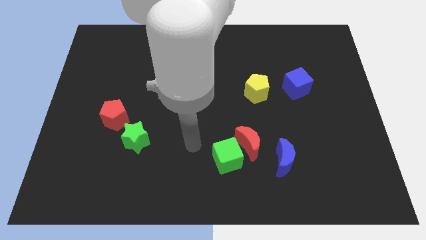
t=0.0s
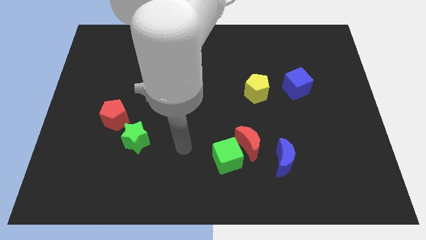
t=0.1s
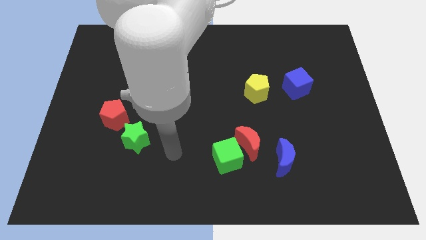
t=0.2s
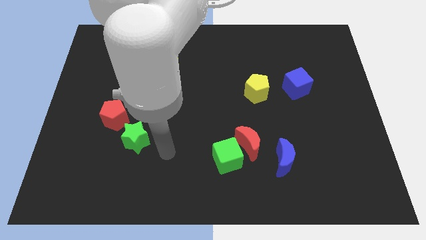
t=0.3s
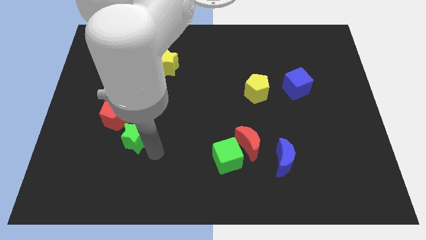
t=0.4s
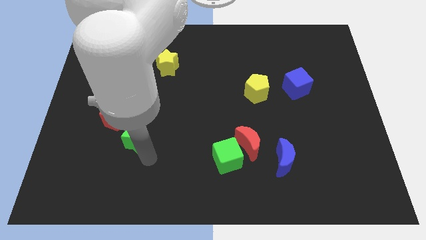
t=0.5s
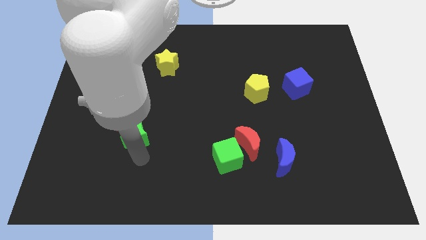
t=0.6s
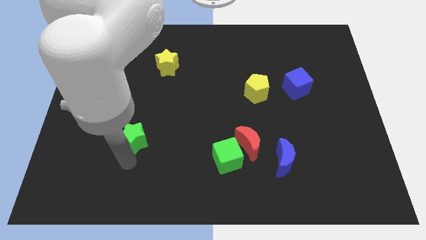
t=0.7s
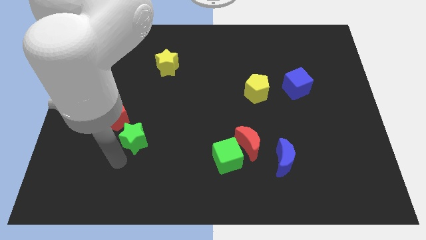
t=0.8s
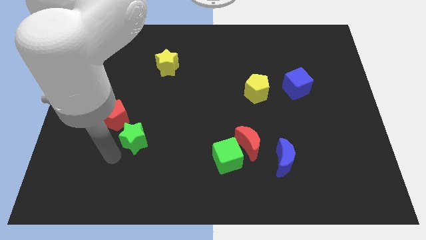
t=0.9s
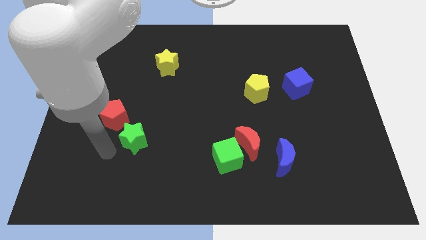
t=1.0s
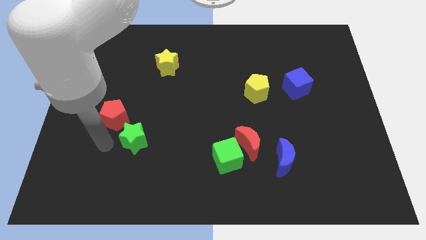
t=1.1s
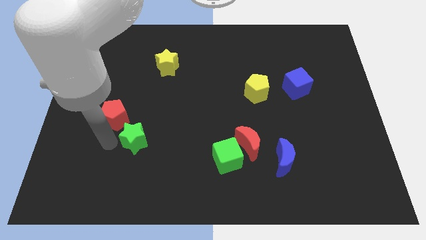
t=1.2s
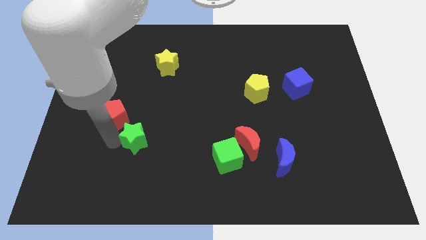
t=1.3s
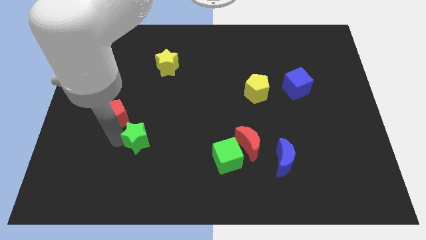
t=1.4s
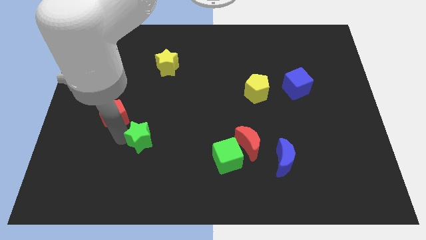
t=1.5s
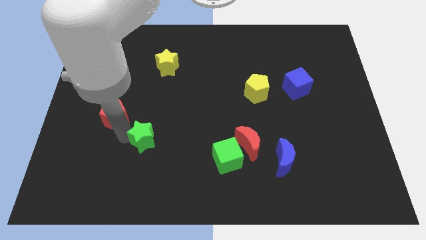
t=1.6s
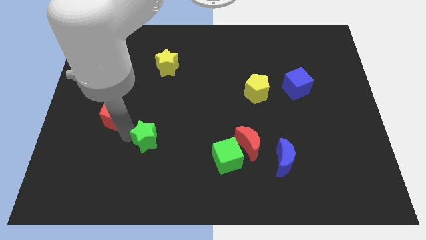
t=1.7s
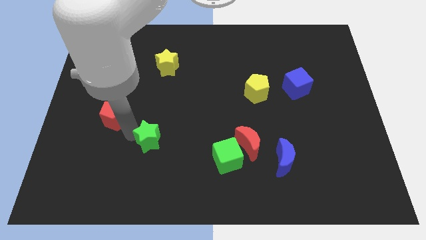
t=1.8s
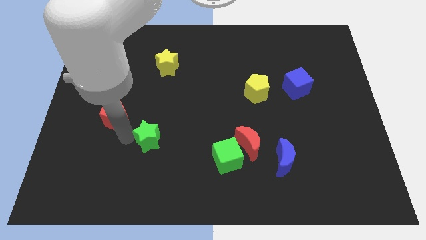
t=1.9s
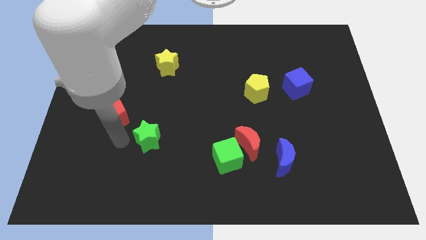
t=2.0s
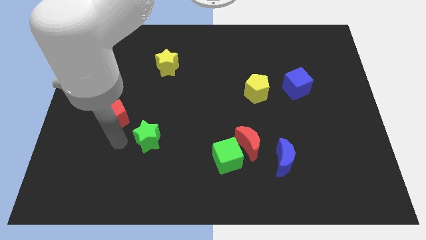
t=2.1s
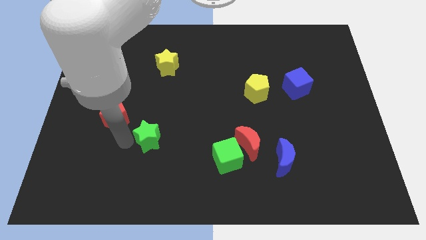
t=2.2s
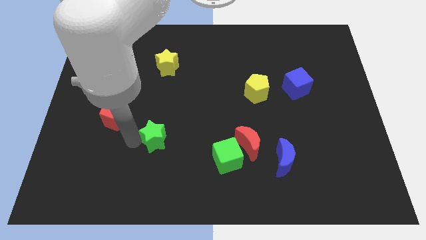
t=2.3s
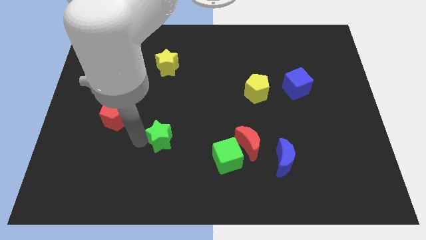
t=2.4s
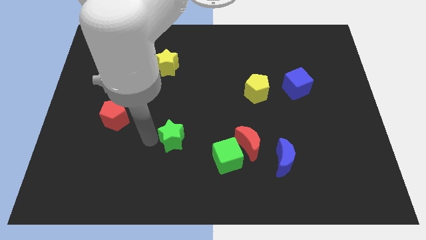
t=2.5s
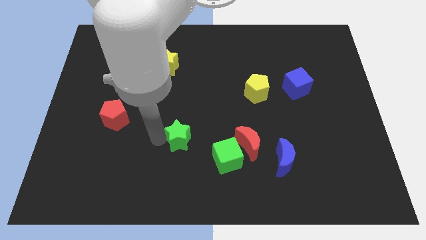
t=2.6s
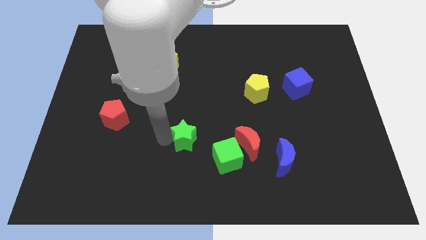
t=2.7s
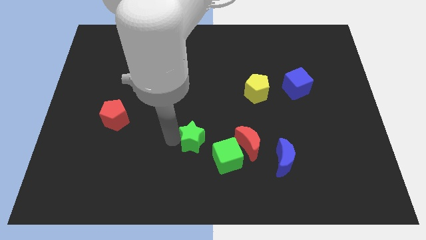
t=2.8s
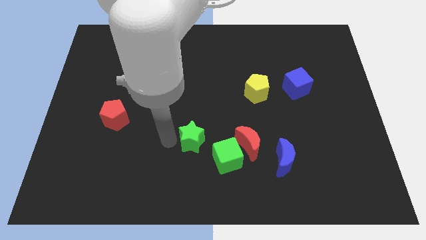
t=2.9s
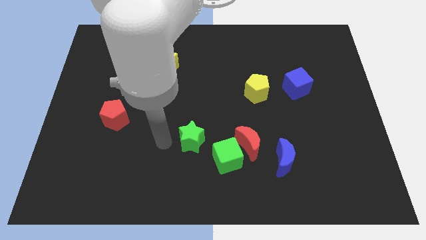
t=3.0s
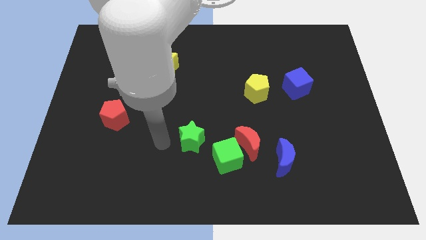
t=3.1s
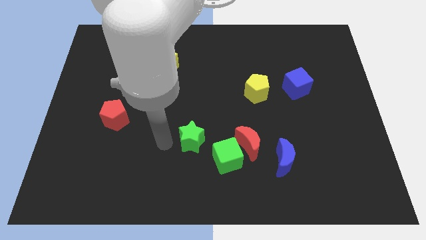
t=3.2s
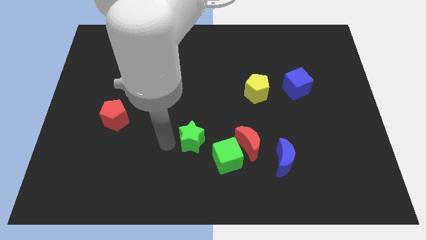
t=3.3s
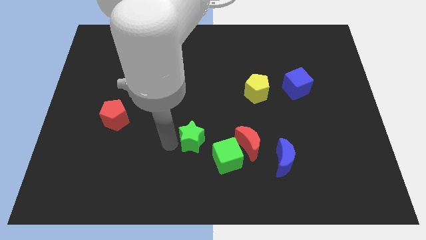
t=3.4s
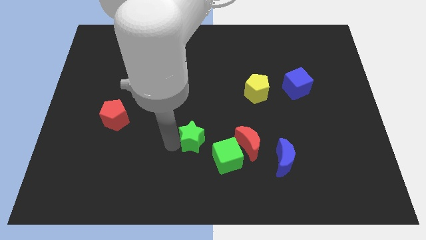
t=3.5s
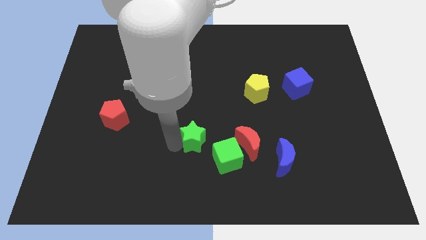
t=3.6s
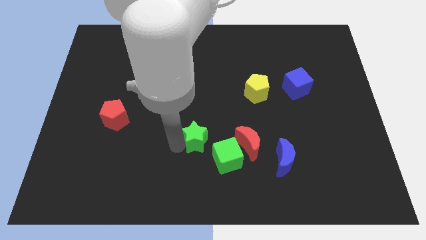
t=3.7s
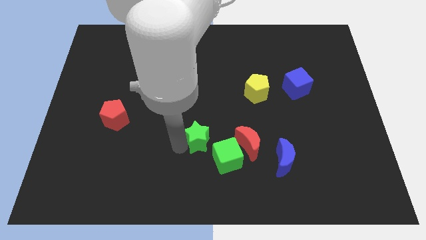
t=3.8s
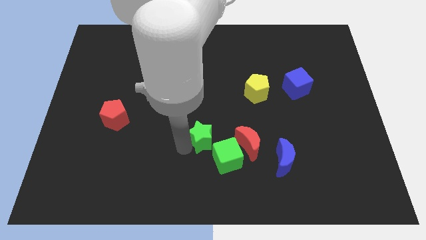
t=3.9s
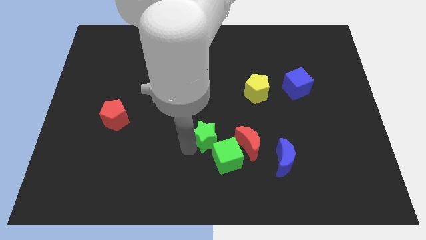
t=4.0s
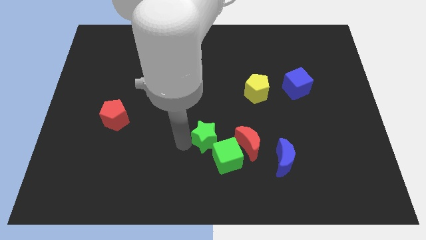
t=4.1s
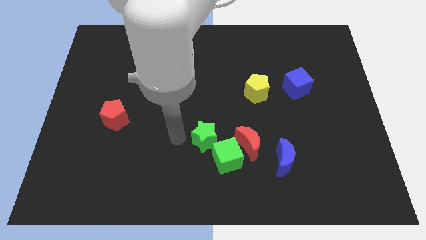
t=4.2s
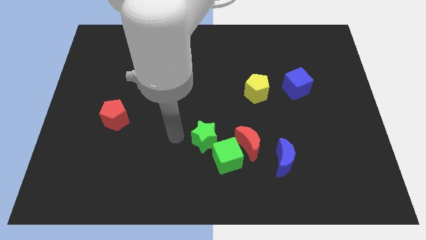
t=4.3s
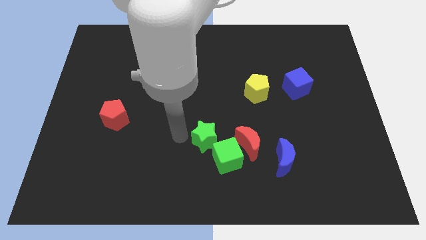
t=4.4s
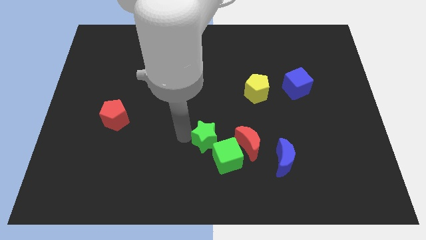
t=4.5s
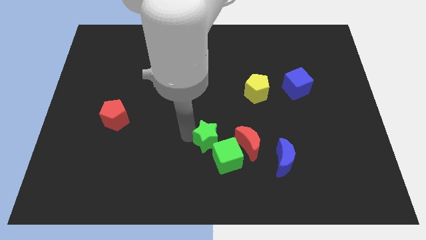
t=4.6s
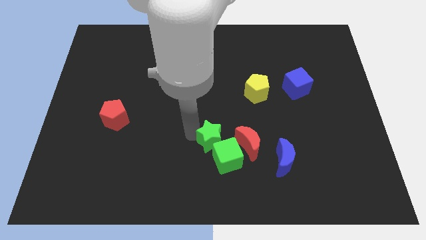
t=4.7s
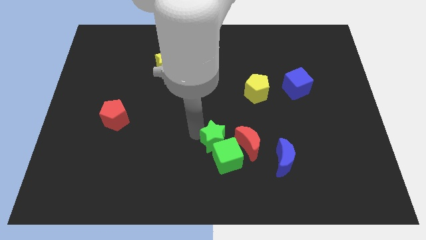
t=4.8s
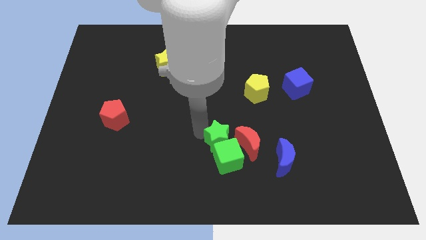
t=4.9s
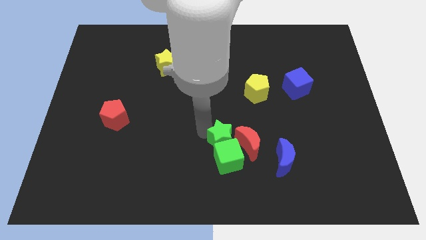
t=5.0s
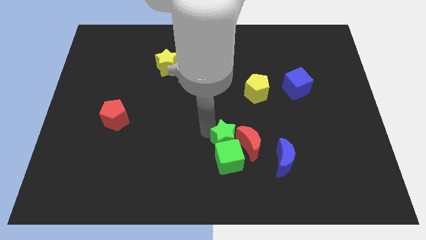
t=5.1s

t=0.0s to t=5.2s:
move the green star towards the red moon

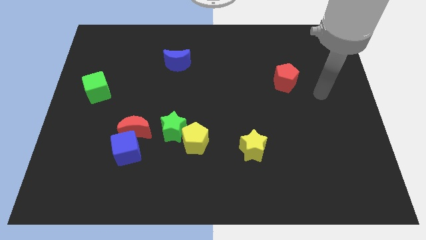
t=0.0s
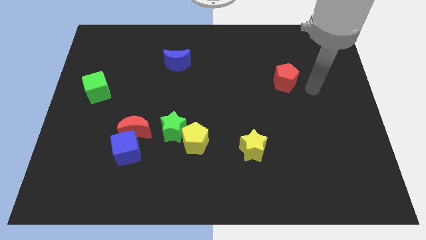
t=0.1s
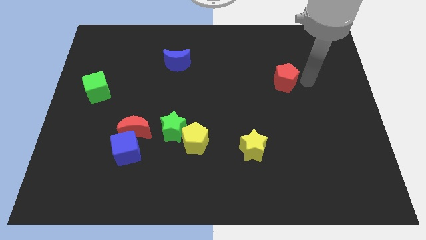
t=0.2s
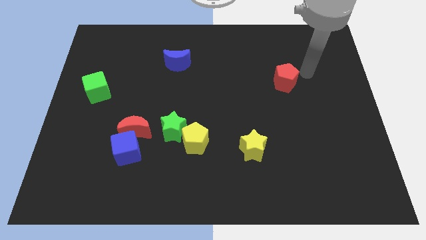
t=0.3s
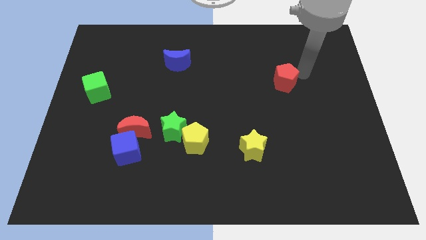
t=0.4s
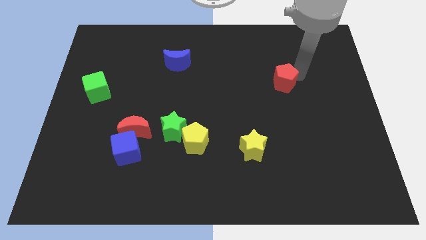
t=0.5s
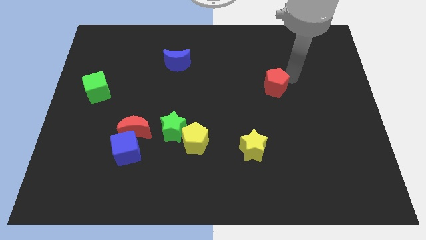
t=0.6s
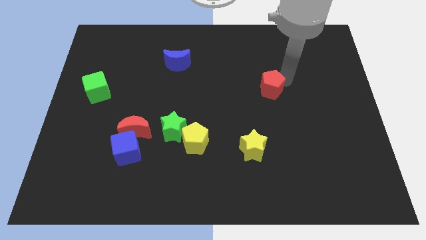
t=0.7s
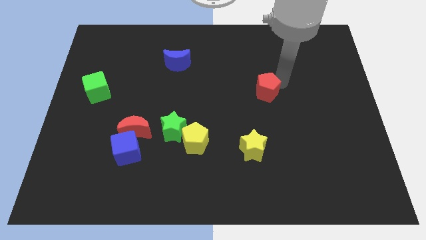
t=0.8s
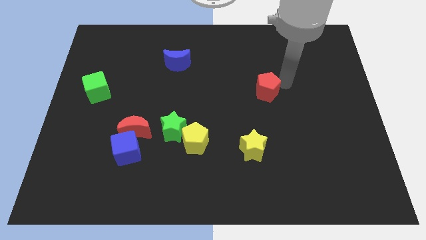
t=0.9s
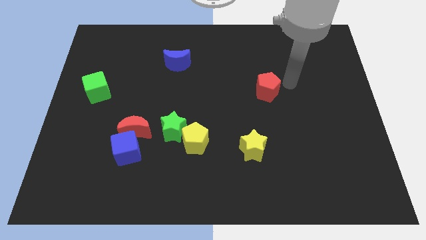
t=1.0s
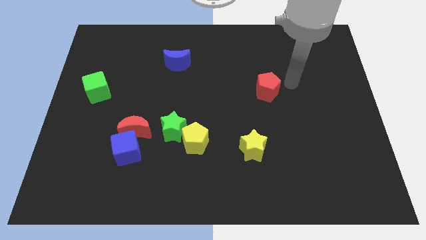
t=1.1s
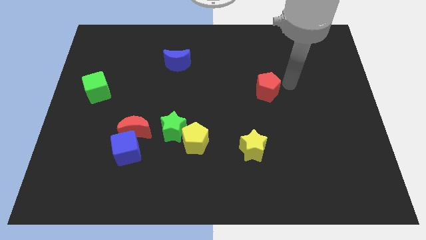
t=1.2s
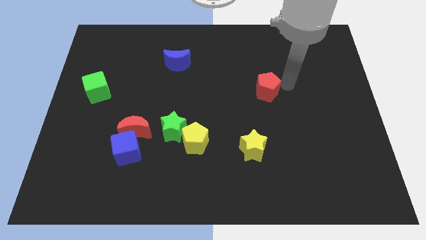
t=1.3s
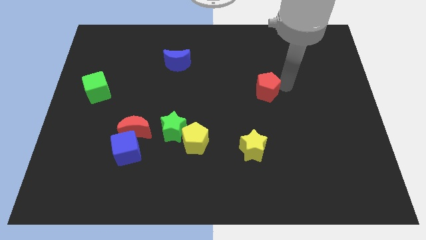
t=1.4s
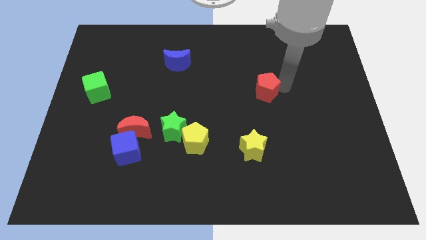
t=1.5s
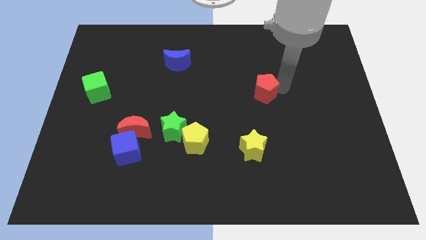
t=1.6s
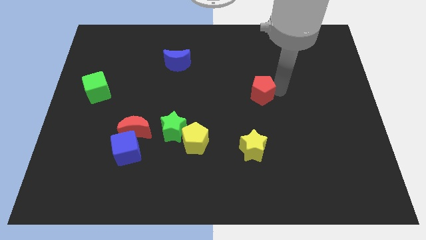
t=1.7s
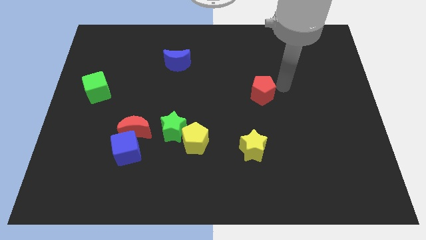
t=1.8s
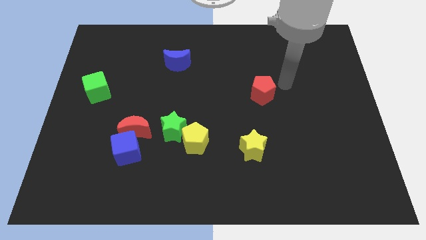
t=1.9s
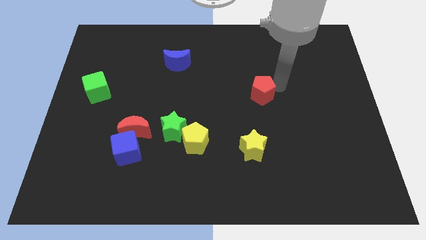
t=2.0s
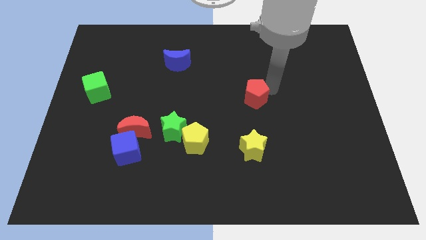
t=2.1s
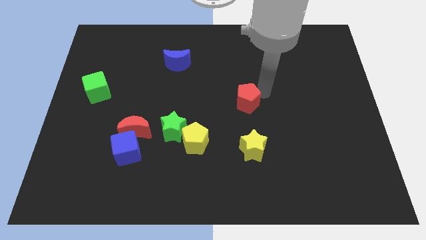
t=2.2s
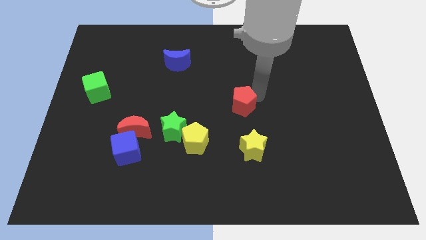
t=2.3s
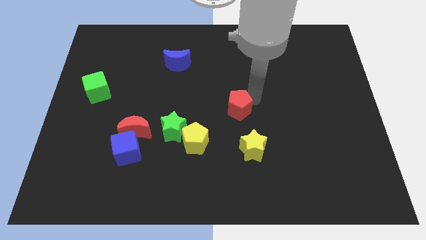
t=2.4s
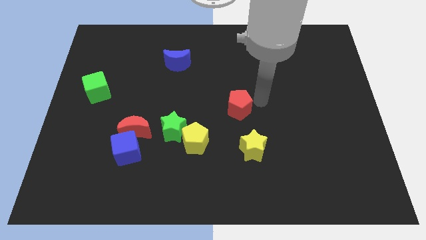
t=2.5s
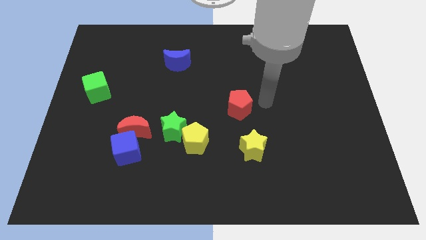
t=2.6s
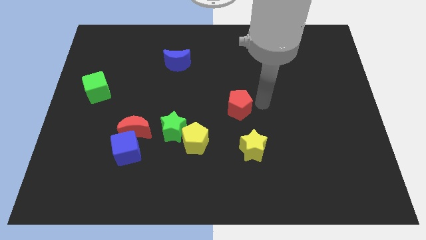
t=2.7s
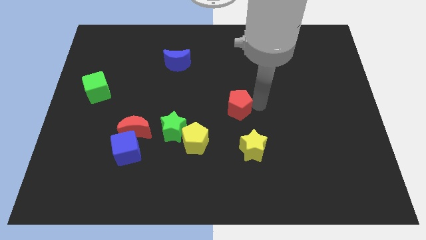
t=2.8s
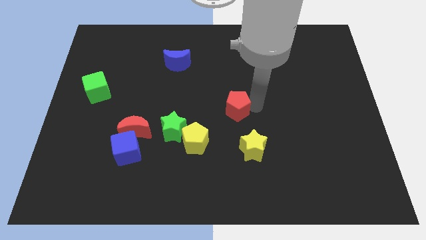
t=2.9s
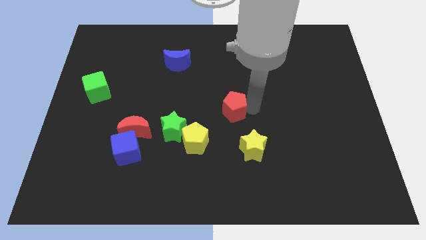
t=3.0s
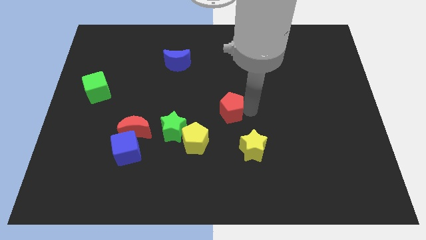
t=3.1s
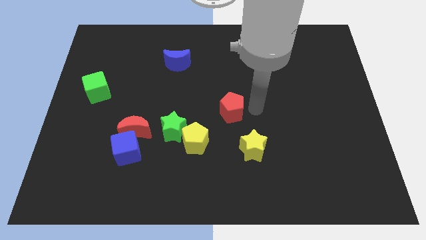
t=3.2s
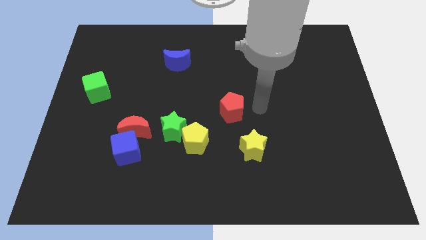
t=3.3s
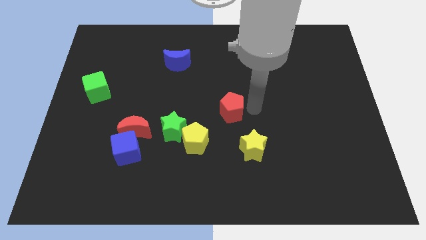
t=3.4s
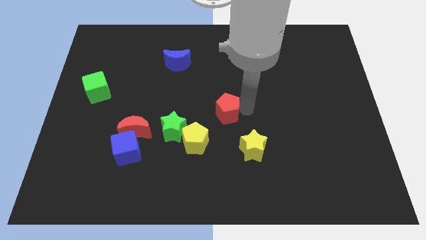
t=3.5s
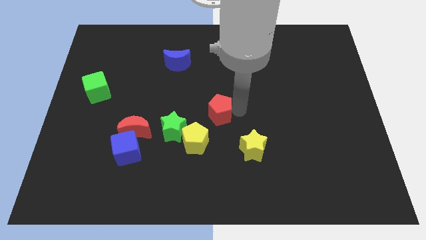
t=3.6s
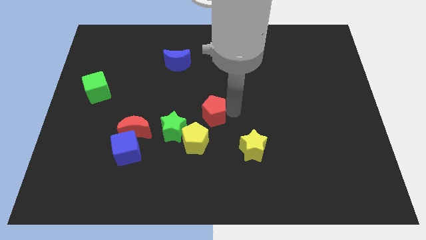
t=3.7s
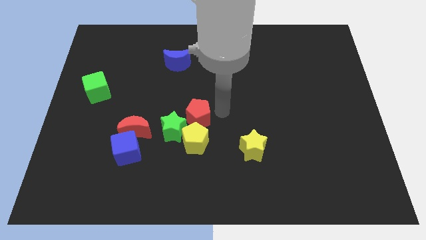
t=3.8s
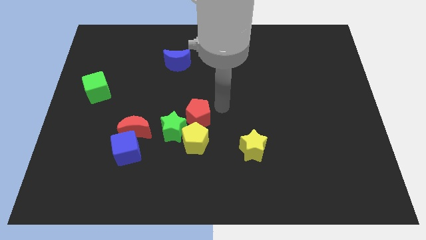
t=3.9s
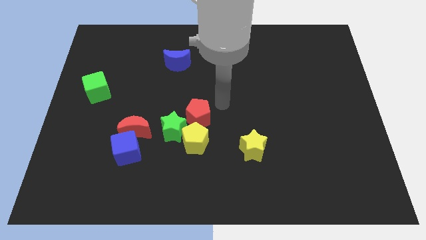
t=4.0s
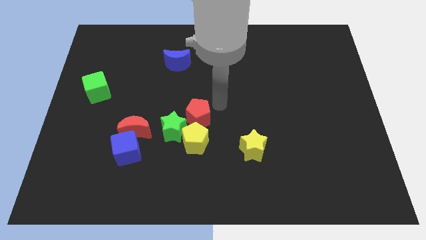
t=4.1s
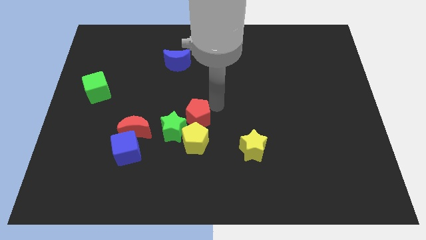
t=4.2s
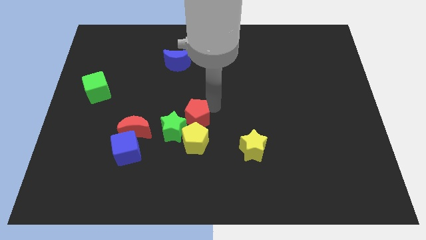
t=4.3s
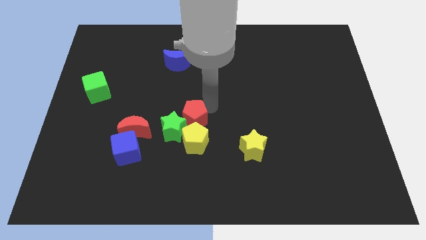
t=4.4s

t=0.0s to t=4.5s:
put the red pentagon towards the green star
